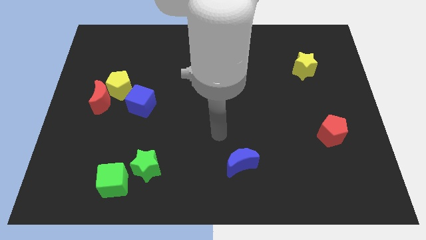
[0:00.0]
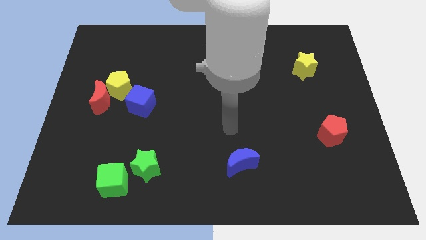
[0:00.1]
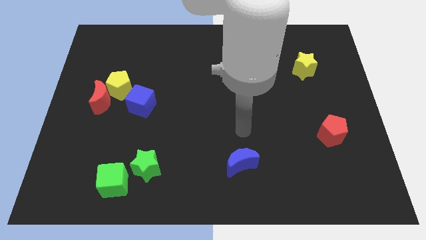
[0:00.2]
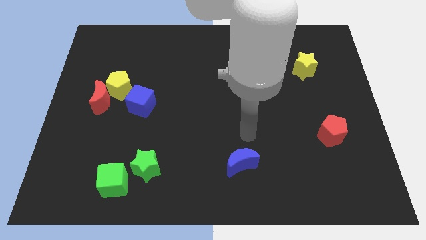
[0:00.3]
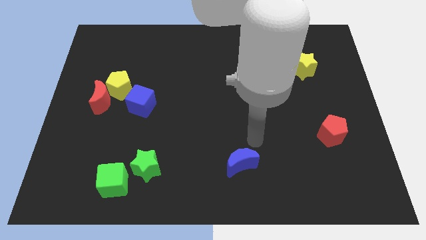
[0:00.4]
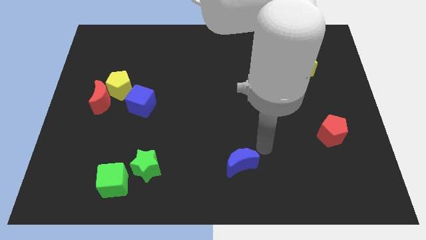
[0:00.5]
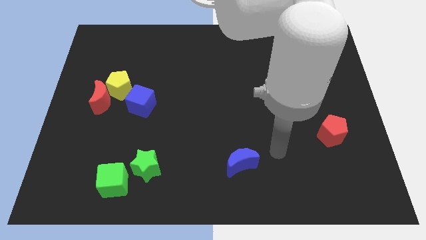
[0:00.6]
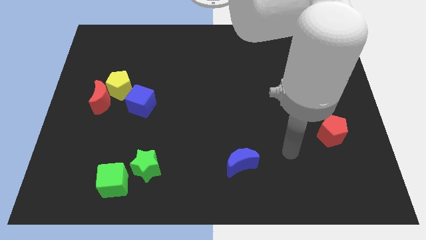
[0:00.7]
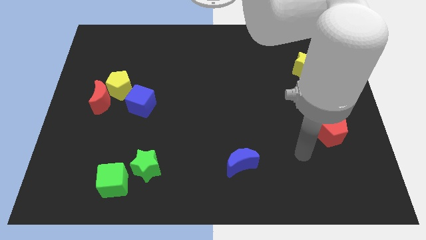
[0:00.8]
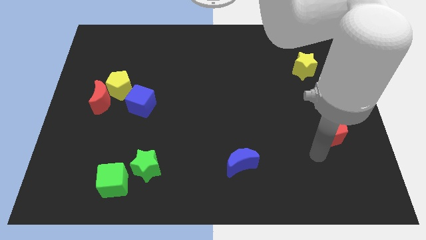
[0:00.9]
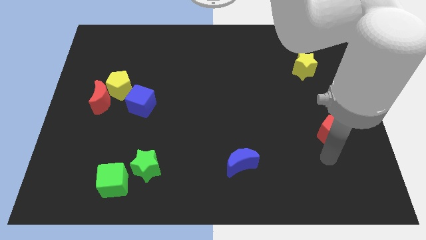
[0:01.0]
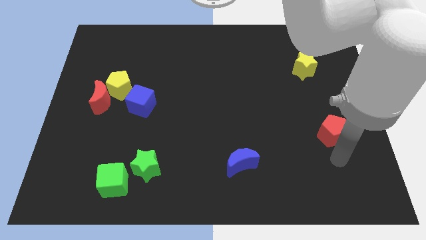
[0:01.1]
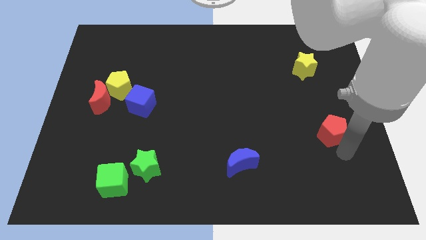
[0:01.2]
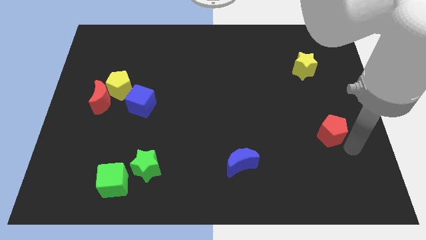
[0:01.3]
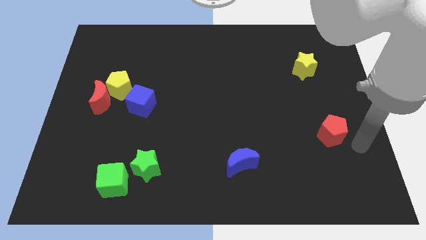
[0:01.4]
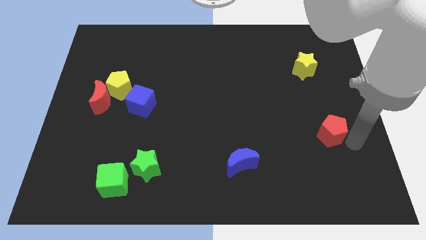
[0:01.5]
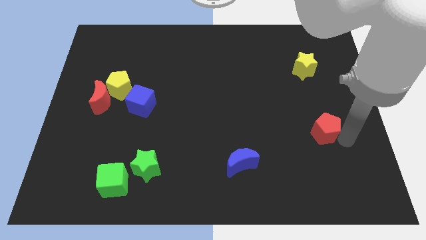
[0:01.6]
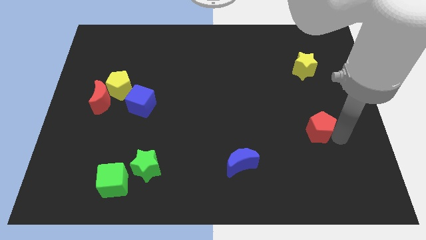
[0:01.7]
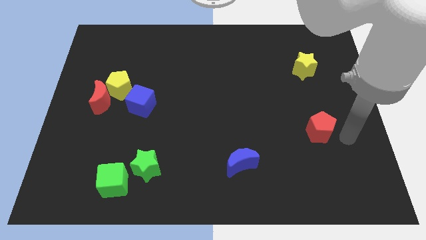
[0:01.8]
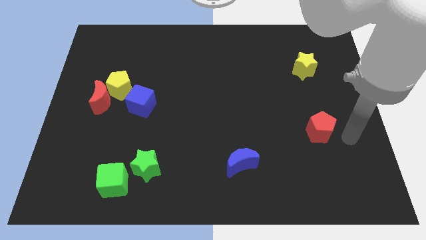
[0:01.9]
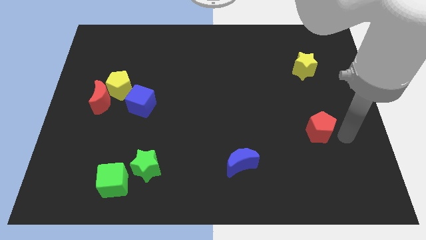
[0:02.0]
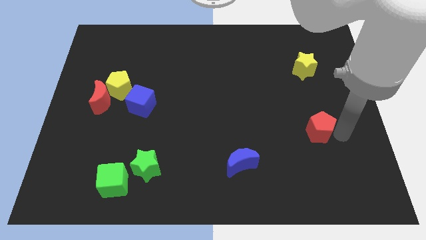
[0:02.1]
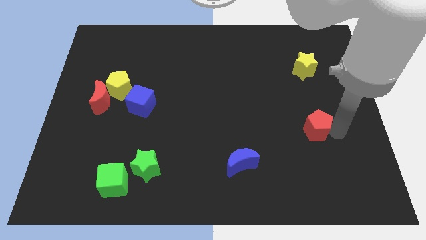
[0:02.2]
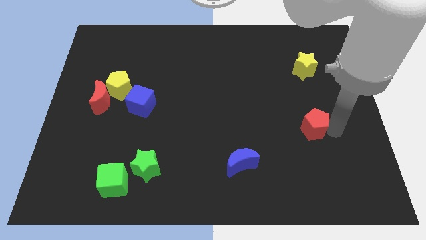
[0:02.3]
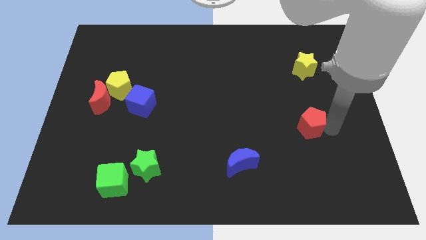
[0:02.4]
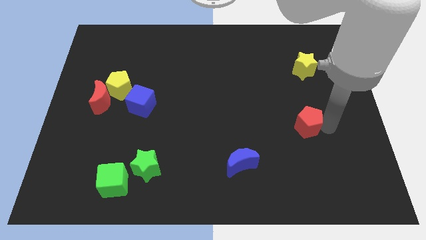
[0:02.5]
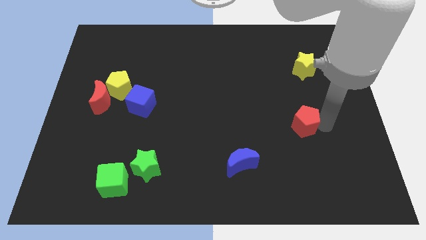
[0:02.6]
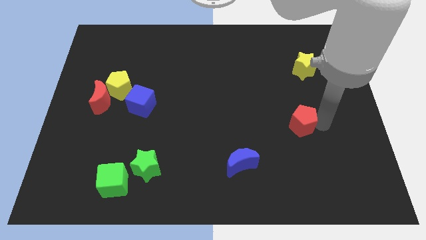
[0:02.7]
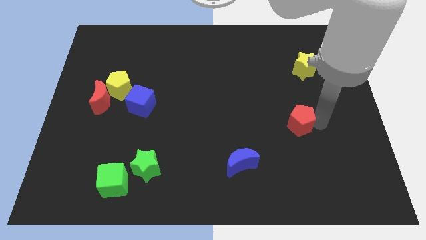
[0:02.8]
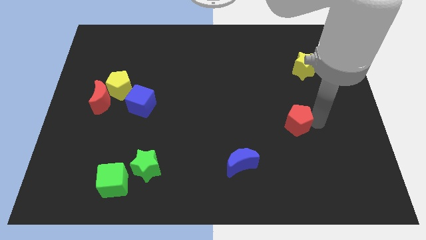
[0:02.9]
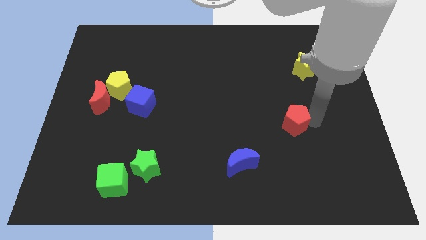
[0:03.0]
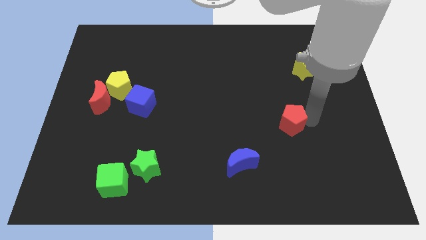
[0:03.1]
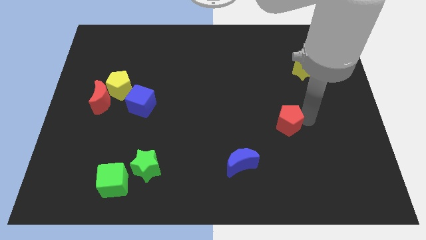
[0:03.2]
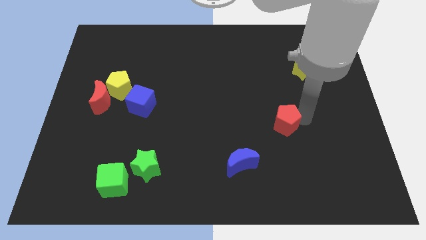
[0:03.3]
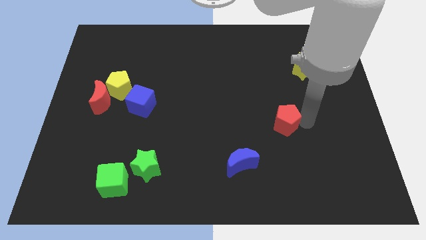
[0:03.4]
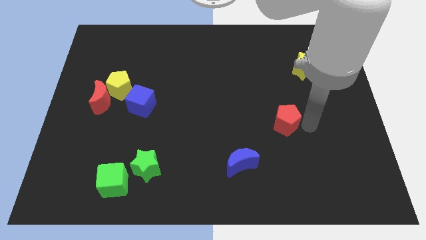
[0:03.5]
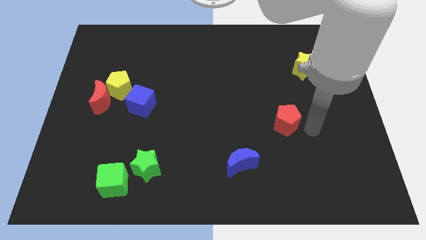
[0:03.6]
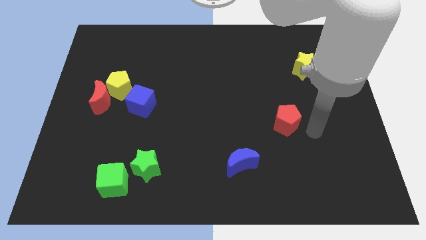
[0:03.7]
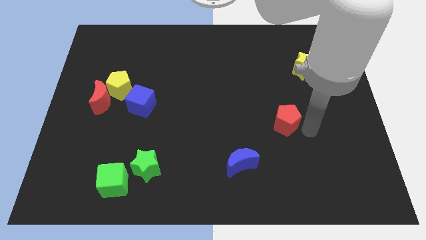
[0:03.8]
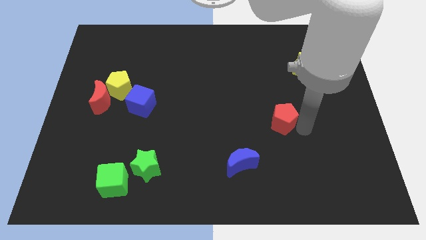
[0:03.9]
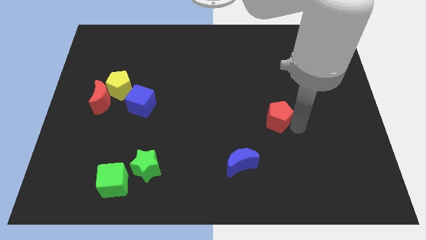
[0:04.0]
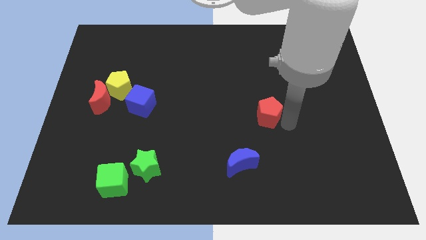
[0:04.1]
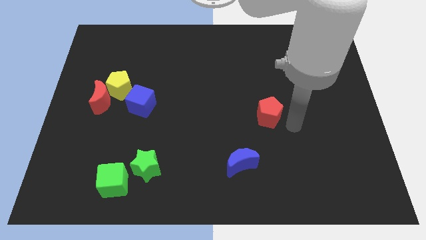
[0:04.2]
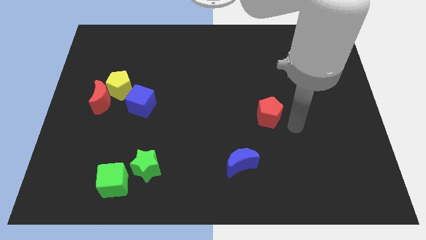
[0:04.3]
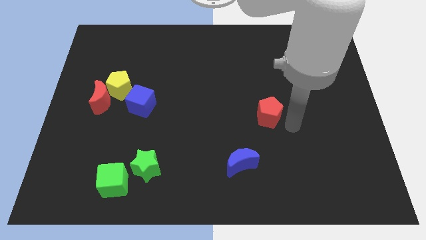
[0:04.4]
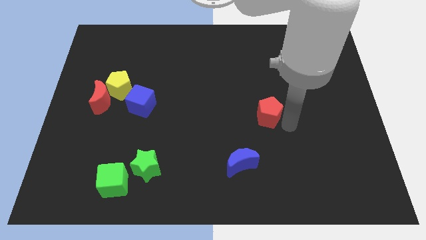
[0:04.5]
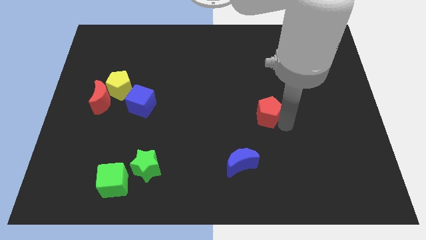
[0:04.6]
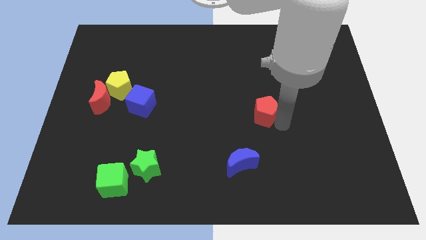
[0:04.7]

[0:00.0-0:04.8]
push the red pentagon to the middle

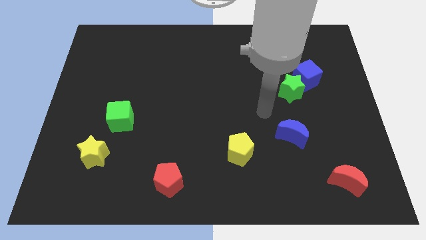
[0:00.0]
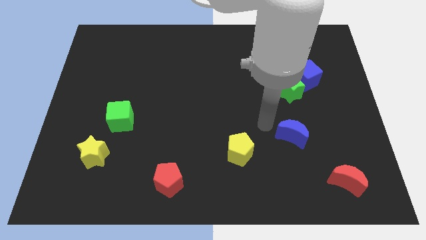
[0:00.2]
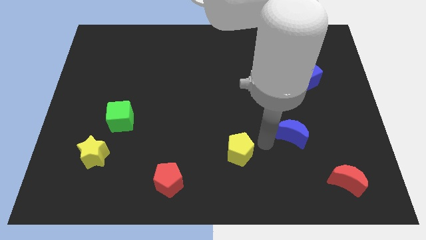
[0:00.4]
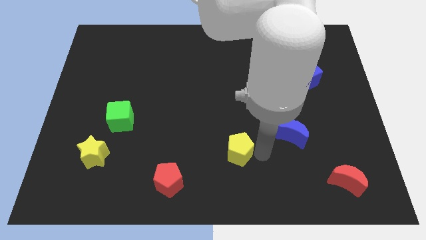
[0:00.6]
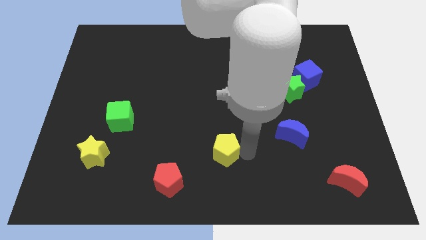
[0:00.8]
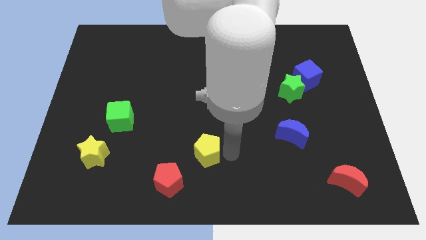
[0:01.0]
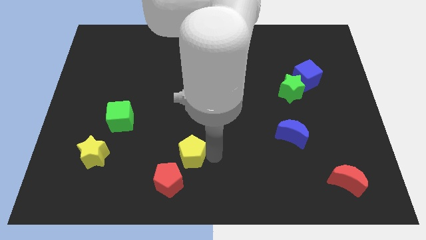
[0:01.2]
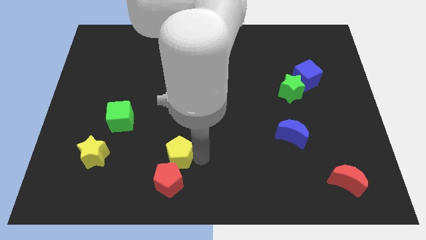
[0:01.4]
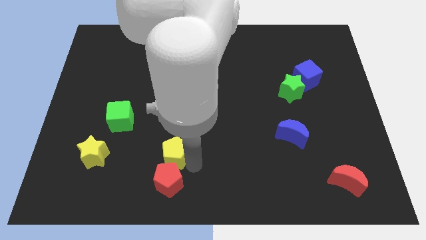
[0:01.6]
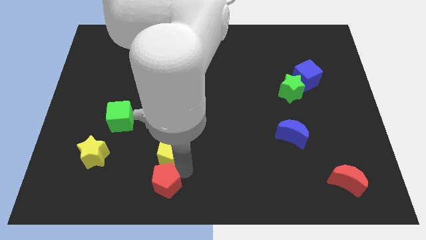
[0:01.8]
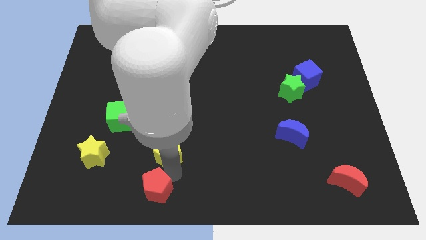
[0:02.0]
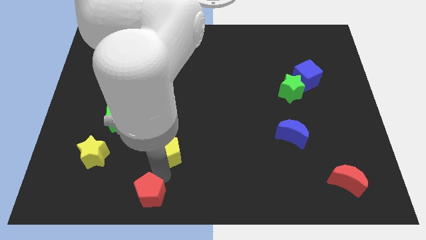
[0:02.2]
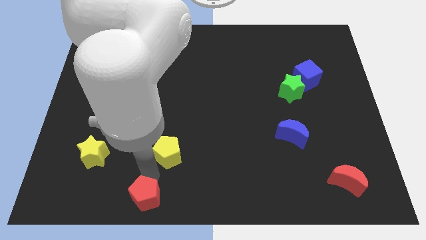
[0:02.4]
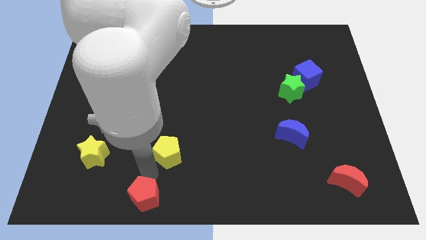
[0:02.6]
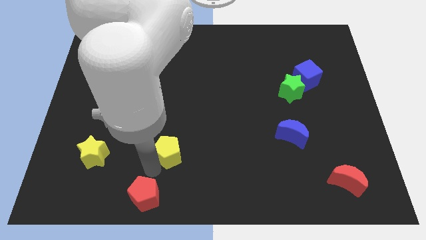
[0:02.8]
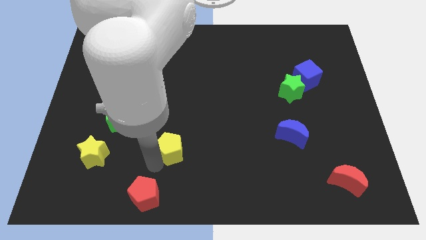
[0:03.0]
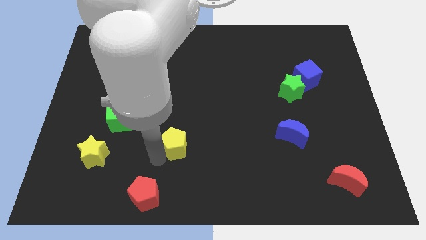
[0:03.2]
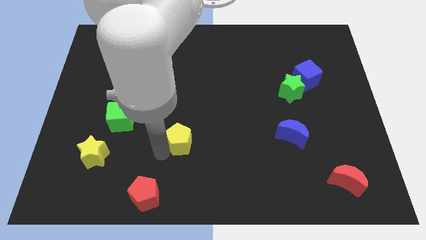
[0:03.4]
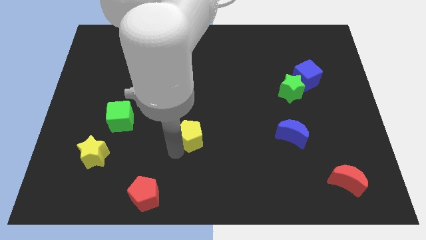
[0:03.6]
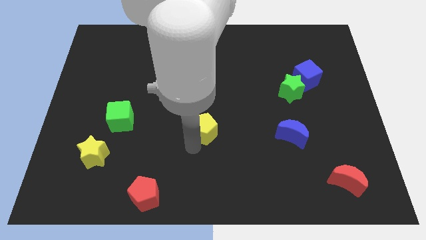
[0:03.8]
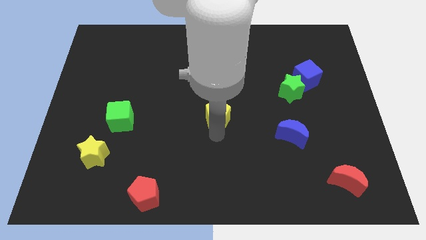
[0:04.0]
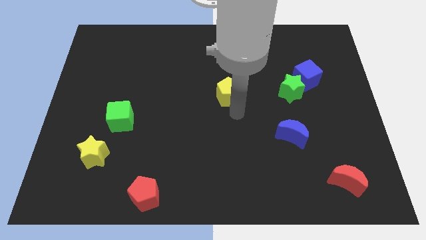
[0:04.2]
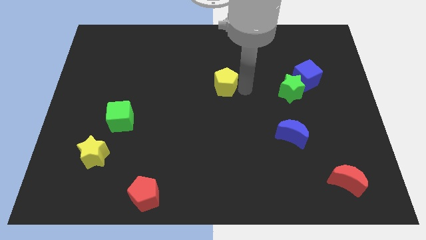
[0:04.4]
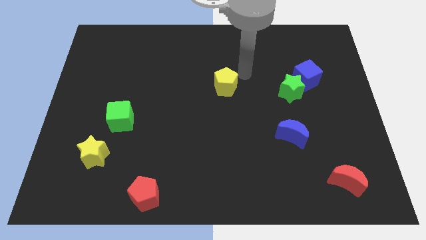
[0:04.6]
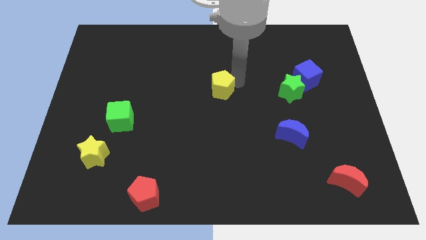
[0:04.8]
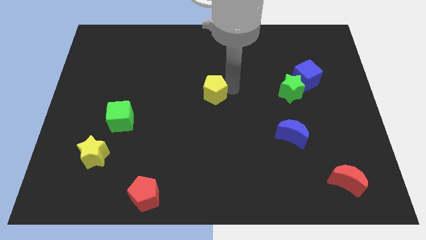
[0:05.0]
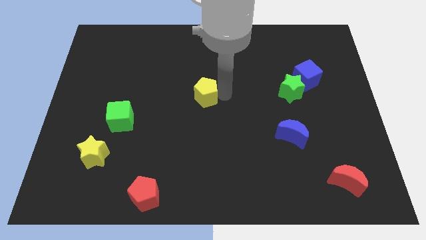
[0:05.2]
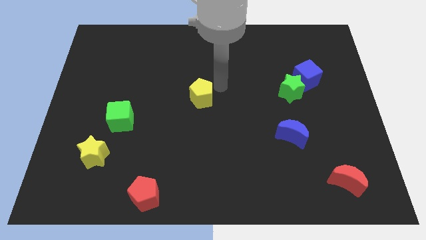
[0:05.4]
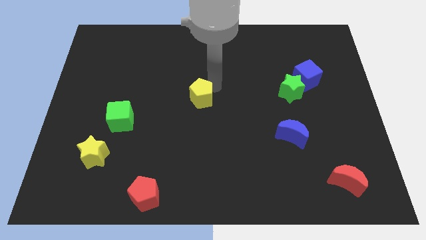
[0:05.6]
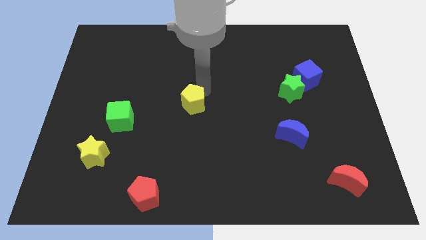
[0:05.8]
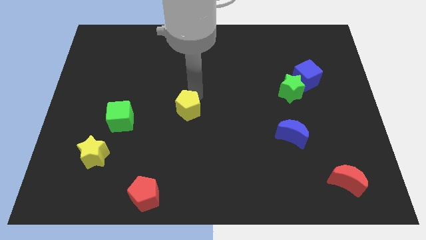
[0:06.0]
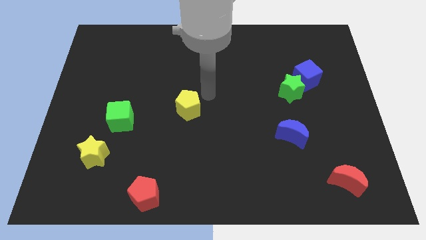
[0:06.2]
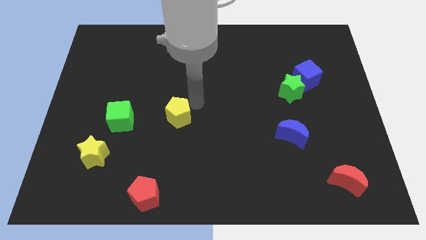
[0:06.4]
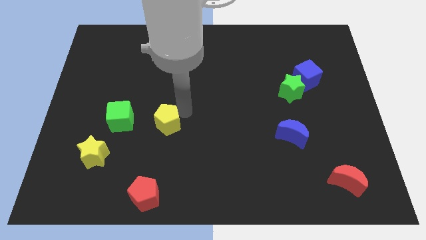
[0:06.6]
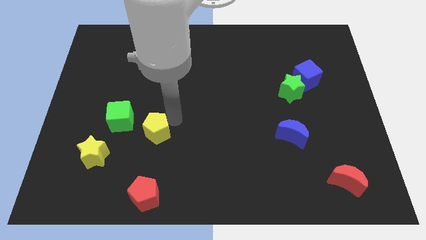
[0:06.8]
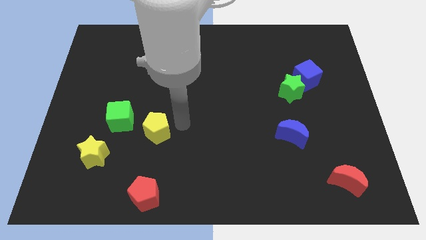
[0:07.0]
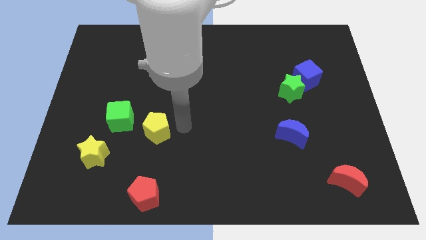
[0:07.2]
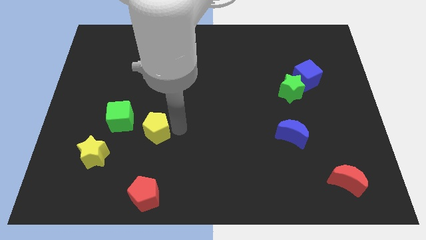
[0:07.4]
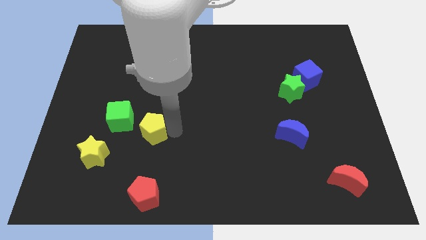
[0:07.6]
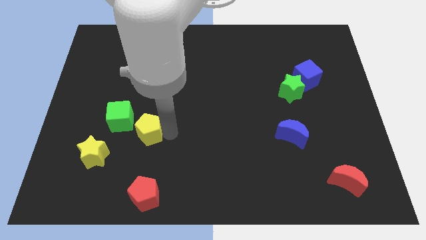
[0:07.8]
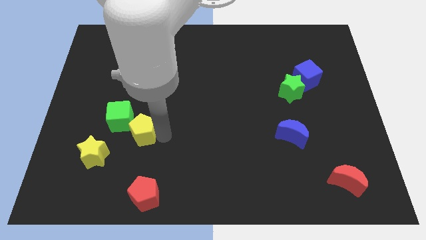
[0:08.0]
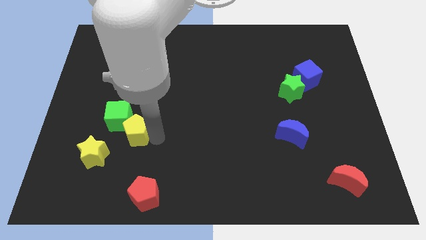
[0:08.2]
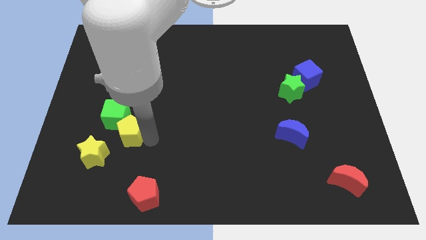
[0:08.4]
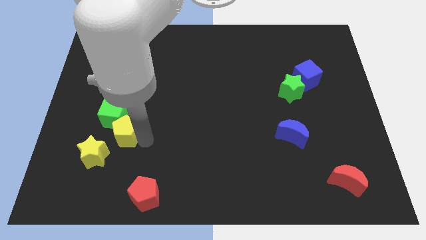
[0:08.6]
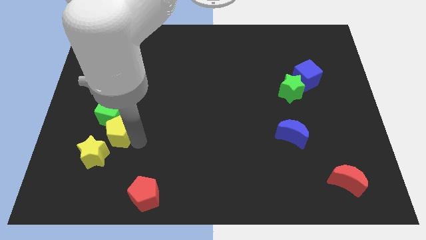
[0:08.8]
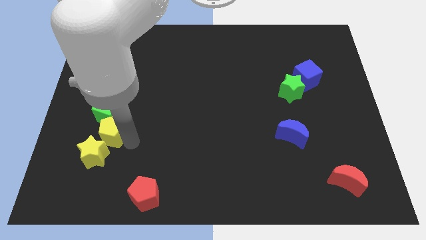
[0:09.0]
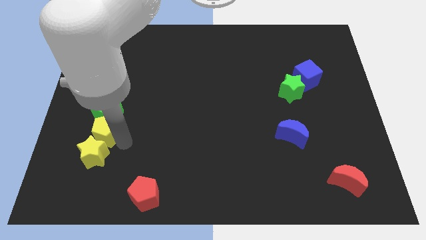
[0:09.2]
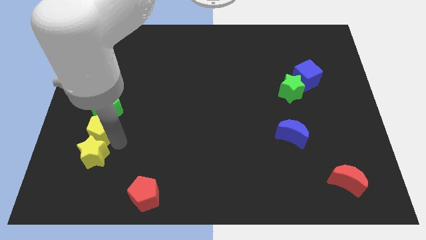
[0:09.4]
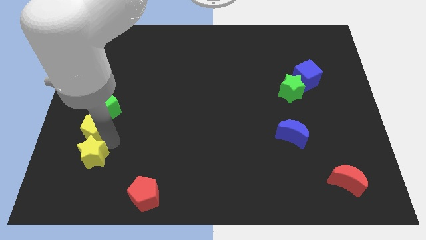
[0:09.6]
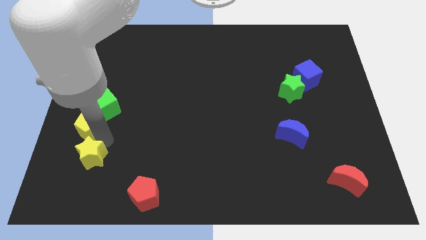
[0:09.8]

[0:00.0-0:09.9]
move the yellow pentagon to the left side
